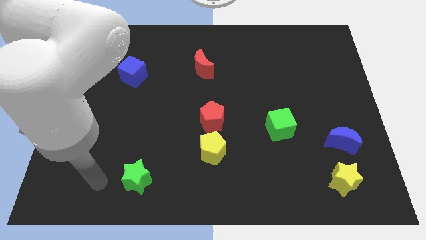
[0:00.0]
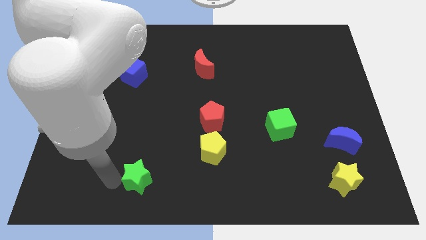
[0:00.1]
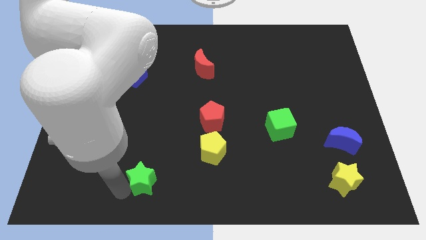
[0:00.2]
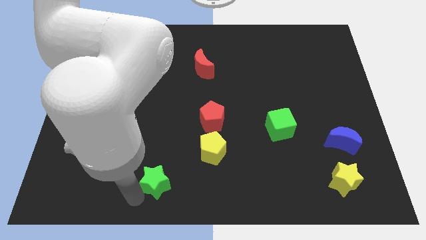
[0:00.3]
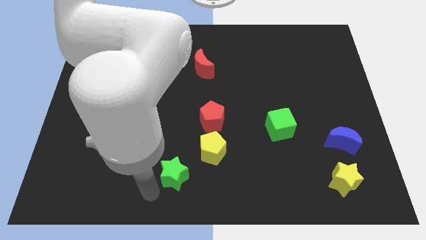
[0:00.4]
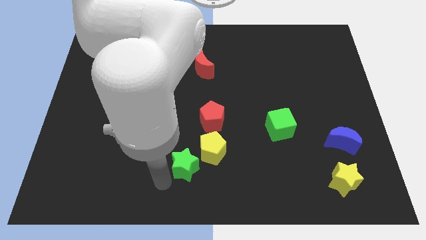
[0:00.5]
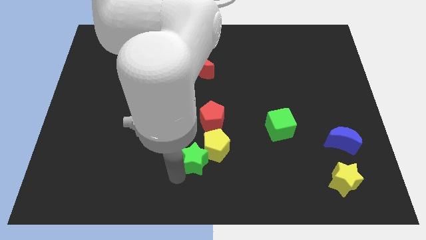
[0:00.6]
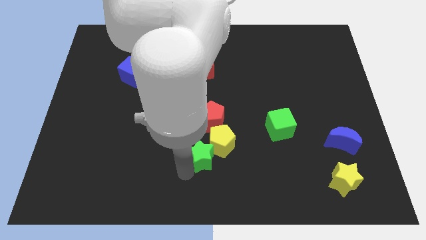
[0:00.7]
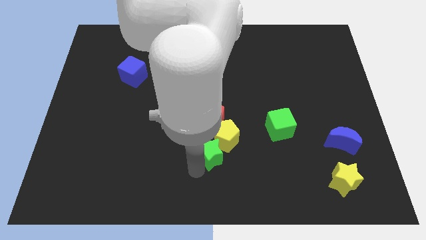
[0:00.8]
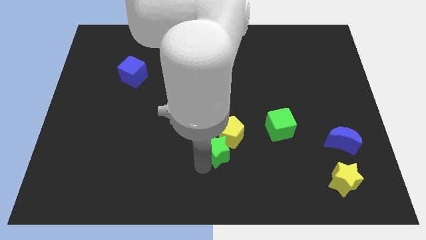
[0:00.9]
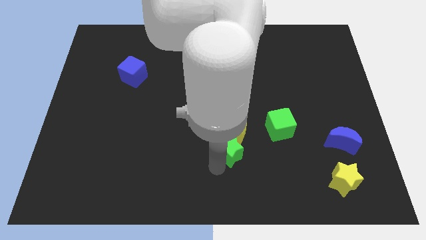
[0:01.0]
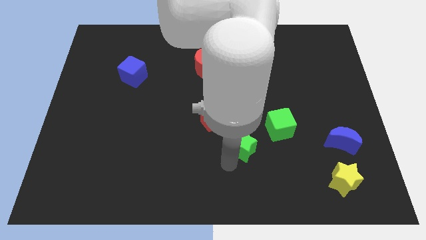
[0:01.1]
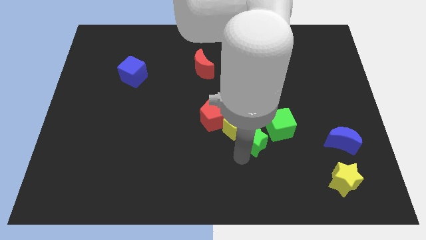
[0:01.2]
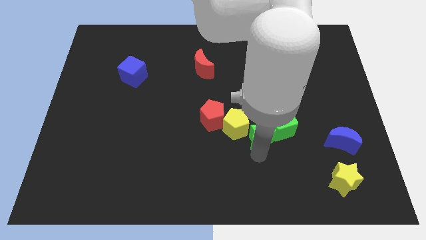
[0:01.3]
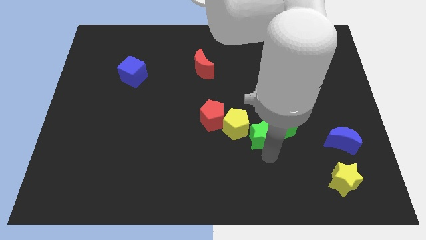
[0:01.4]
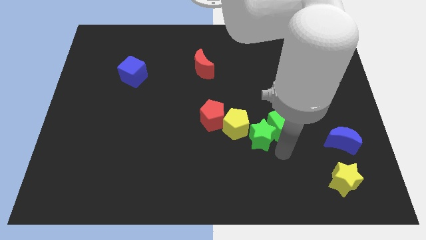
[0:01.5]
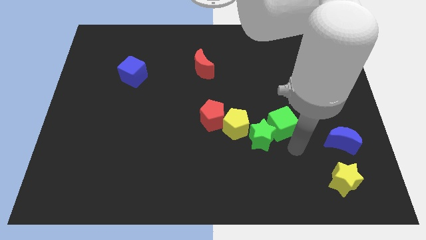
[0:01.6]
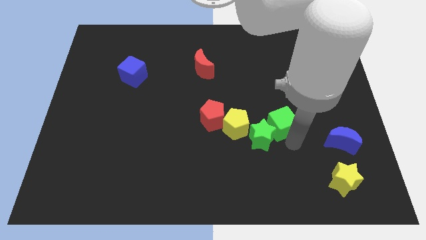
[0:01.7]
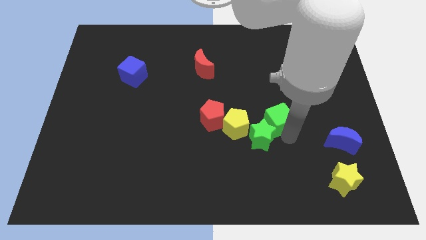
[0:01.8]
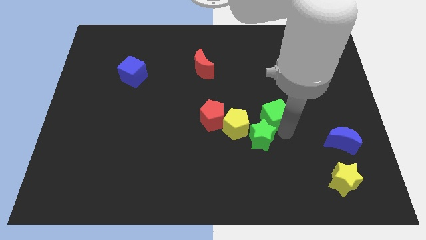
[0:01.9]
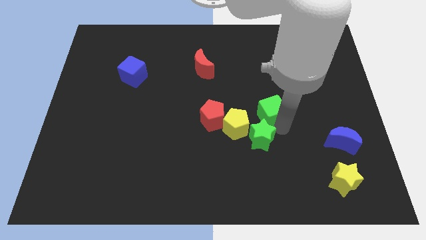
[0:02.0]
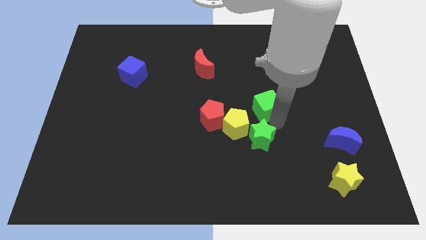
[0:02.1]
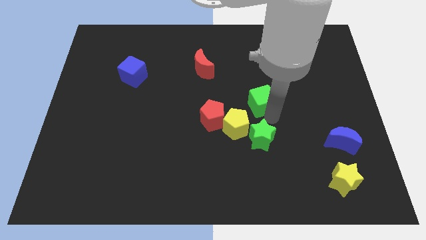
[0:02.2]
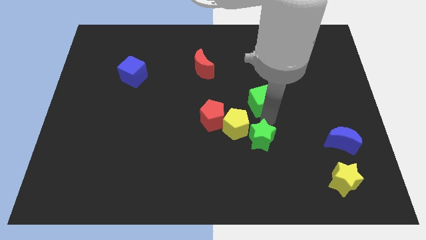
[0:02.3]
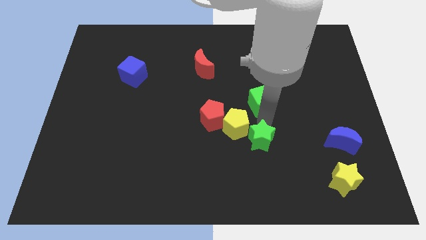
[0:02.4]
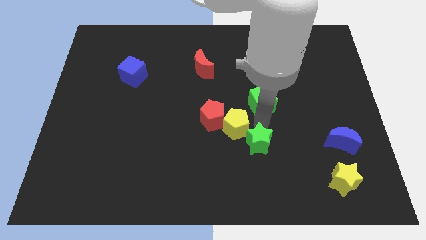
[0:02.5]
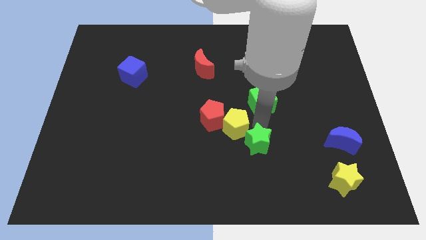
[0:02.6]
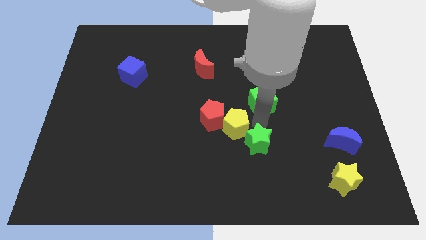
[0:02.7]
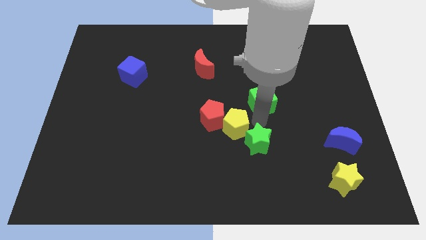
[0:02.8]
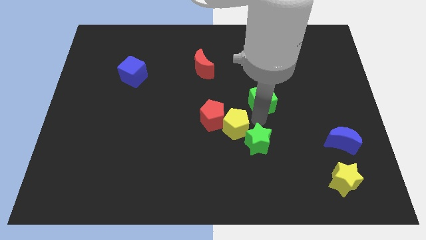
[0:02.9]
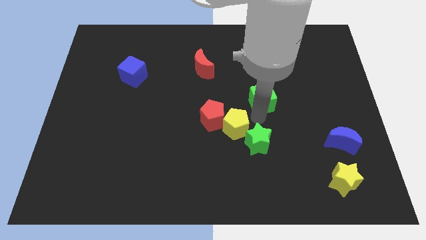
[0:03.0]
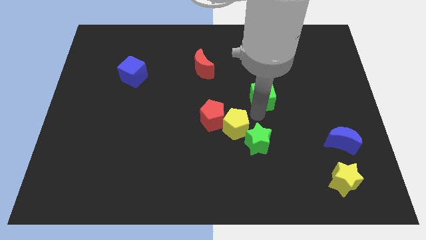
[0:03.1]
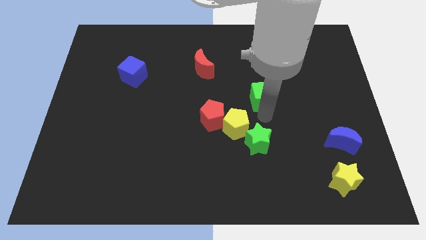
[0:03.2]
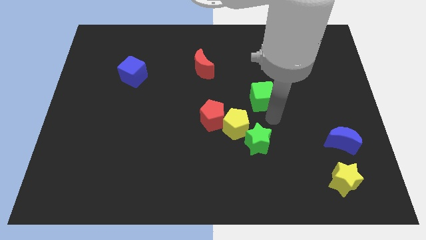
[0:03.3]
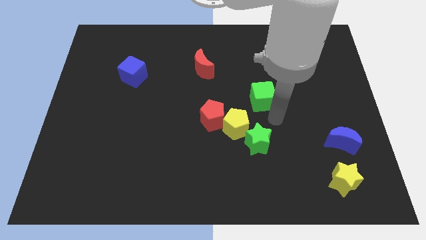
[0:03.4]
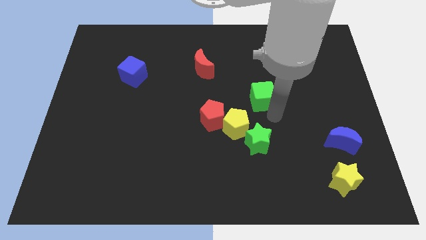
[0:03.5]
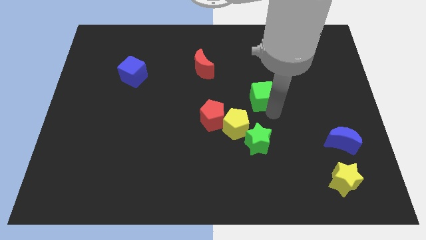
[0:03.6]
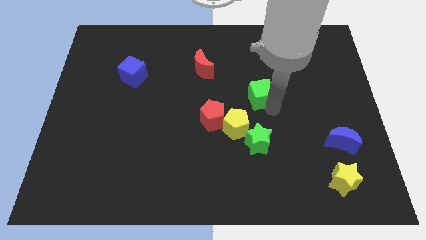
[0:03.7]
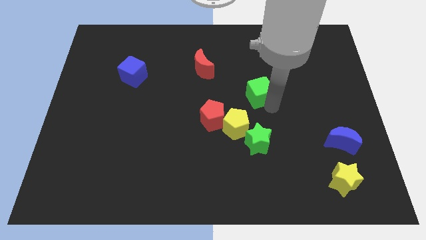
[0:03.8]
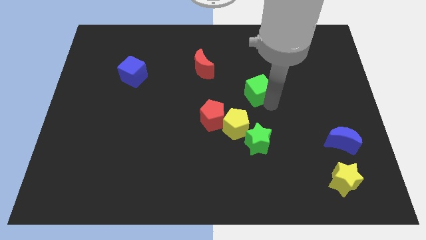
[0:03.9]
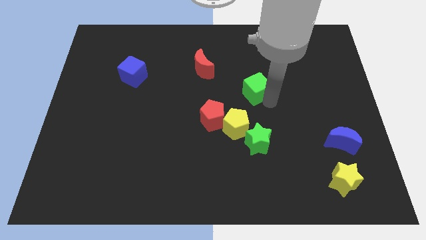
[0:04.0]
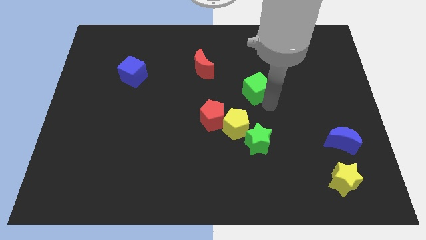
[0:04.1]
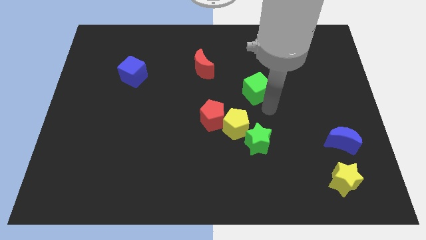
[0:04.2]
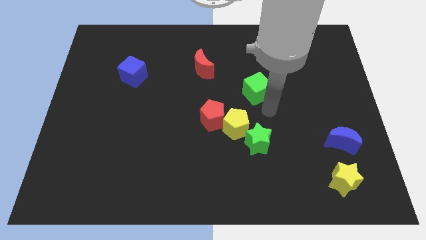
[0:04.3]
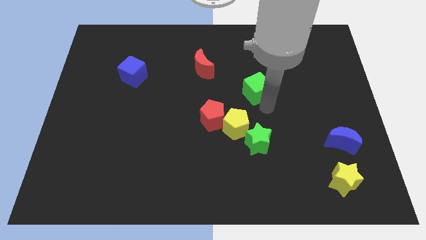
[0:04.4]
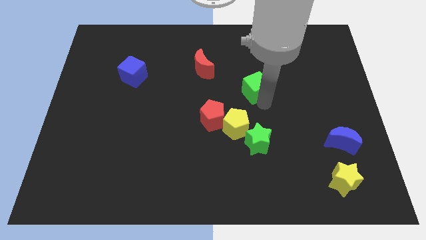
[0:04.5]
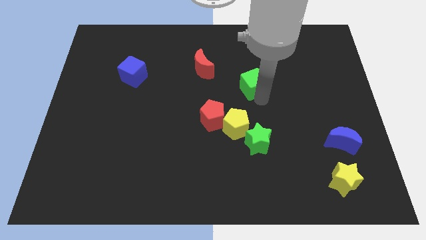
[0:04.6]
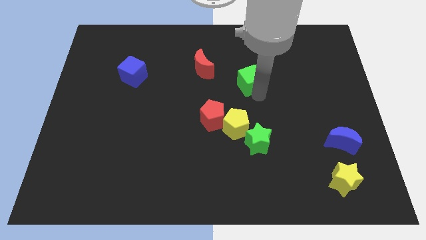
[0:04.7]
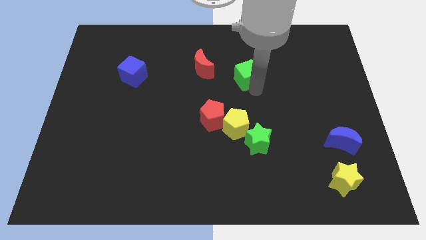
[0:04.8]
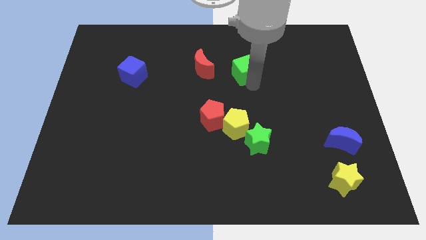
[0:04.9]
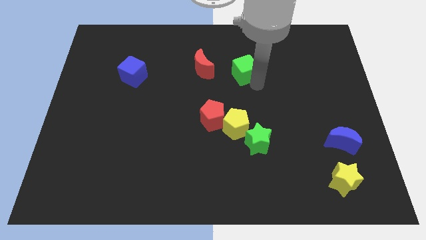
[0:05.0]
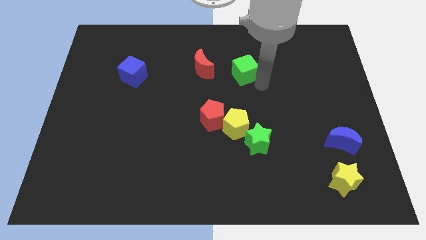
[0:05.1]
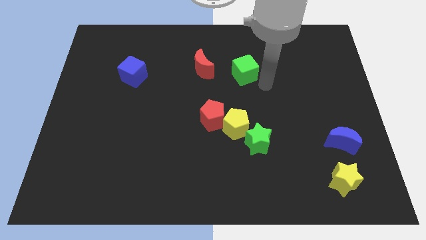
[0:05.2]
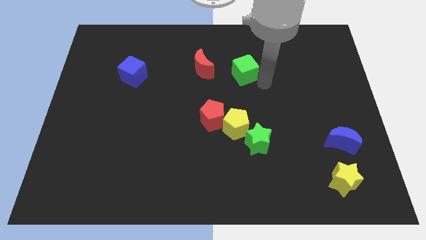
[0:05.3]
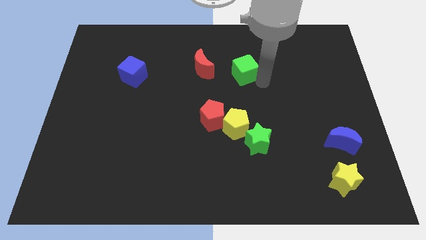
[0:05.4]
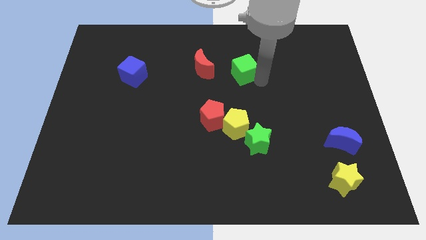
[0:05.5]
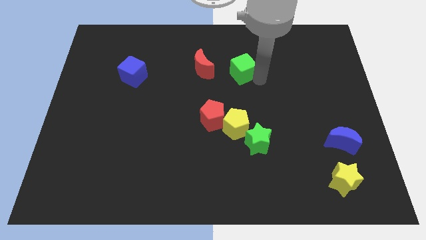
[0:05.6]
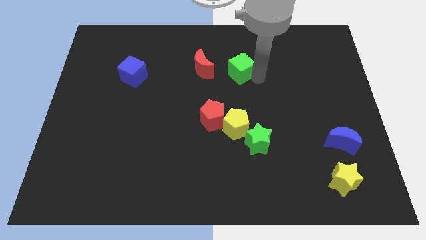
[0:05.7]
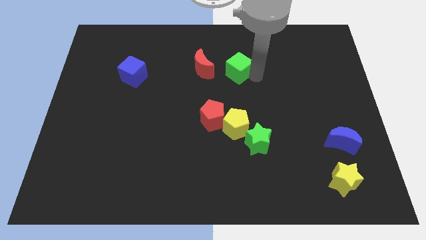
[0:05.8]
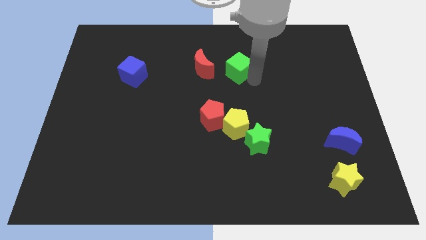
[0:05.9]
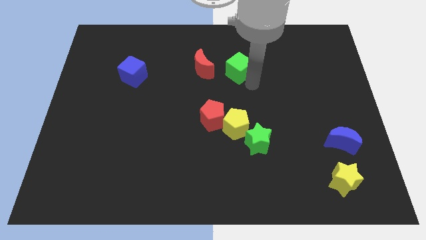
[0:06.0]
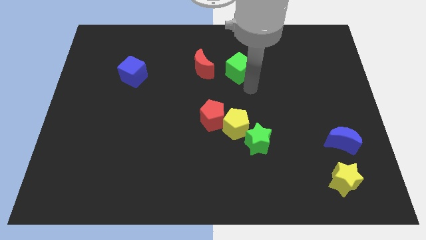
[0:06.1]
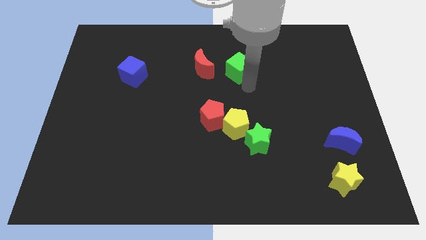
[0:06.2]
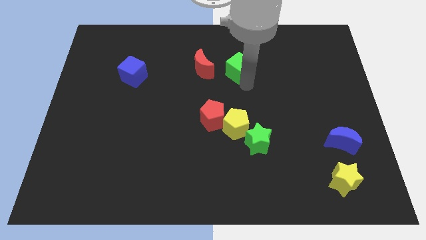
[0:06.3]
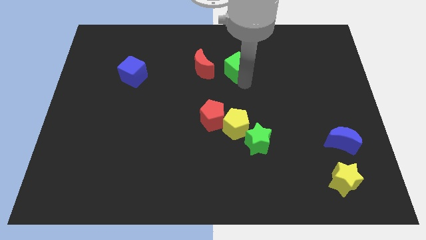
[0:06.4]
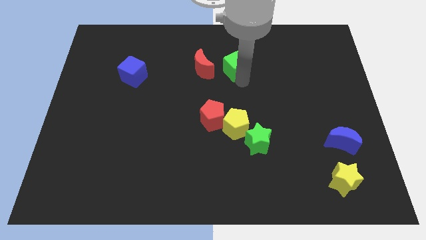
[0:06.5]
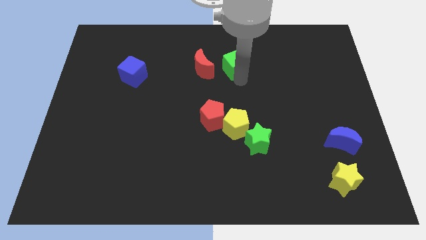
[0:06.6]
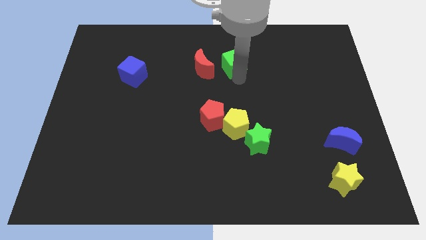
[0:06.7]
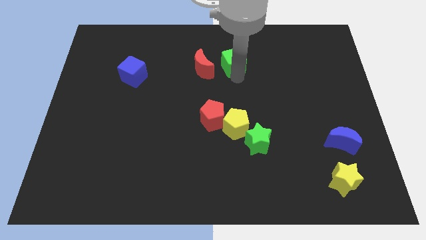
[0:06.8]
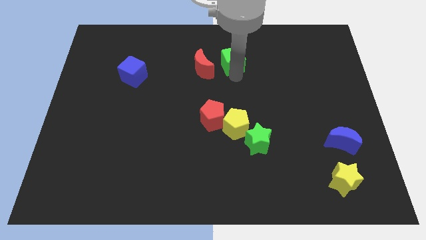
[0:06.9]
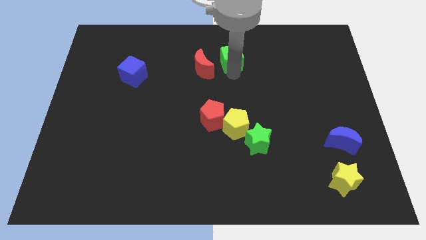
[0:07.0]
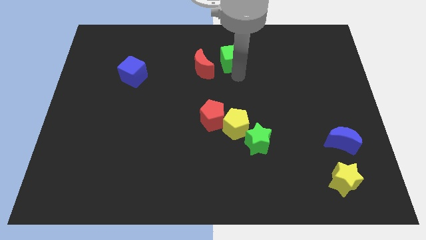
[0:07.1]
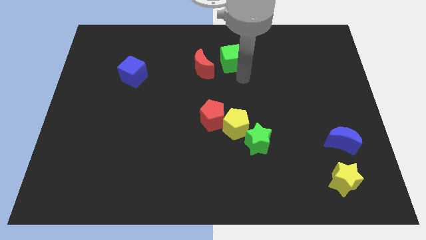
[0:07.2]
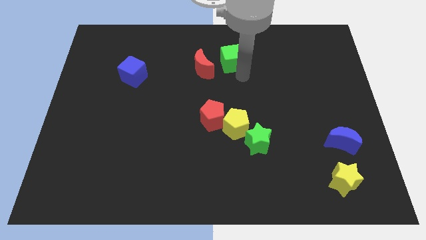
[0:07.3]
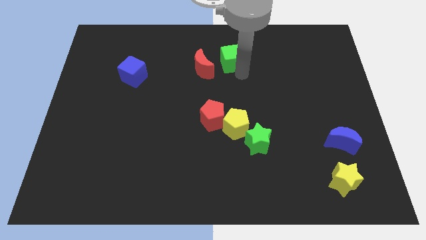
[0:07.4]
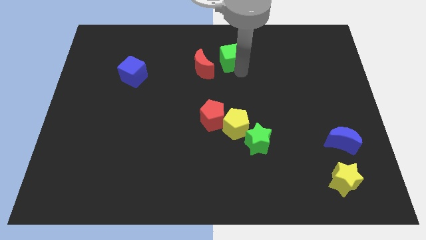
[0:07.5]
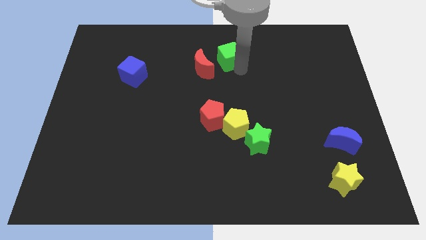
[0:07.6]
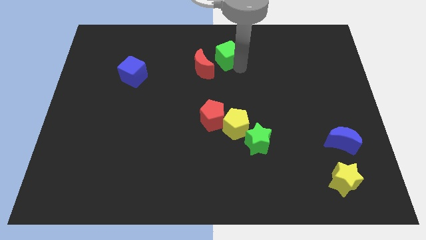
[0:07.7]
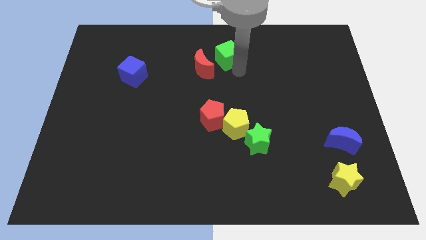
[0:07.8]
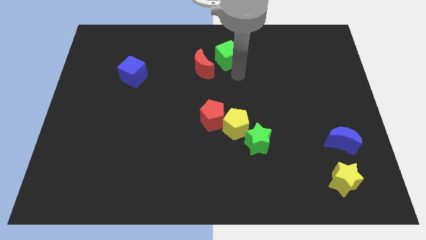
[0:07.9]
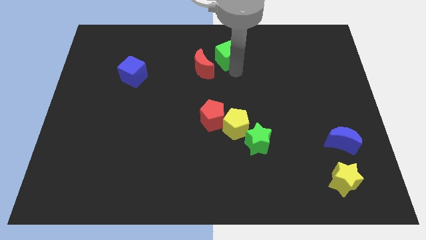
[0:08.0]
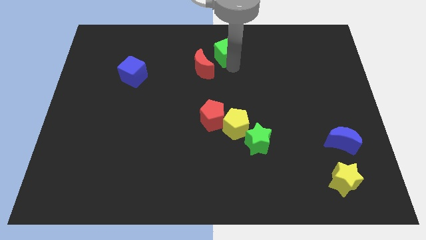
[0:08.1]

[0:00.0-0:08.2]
push the green cube to the towards your base
